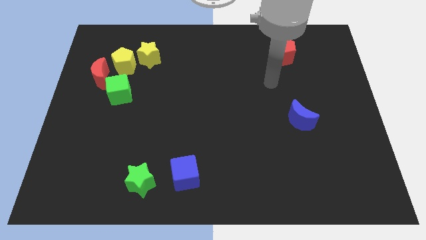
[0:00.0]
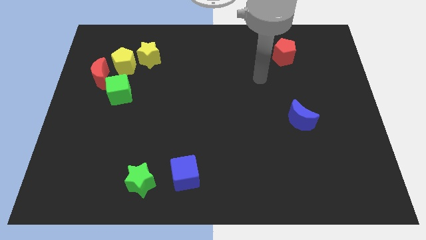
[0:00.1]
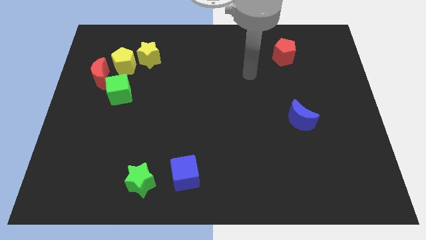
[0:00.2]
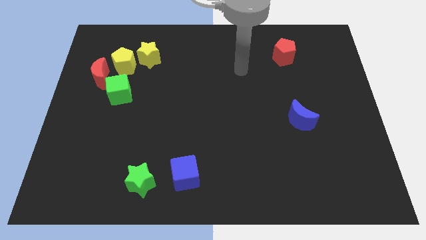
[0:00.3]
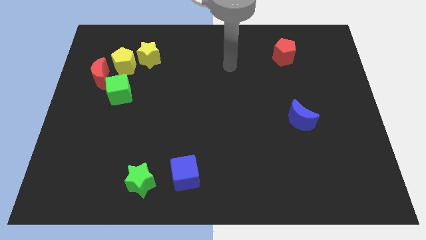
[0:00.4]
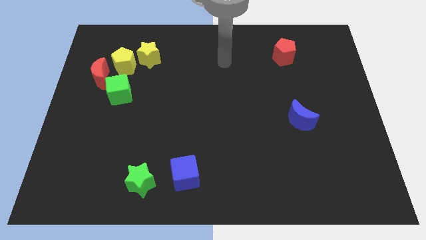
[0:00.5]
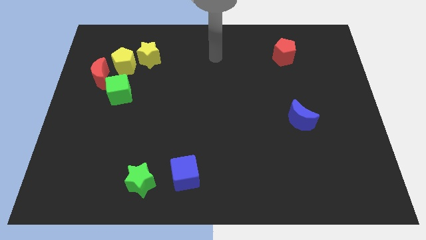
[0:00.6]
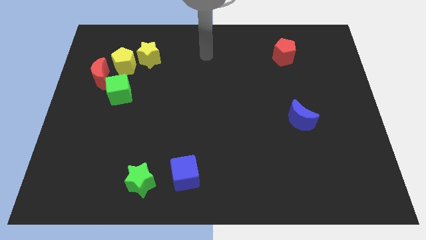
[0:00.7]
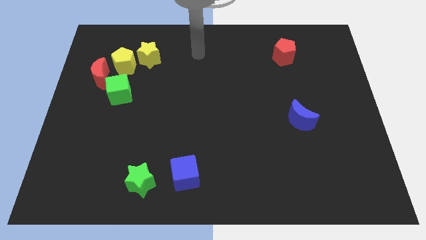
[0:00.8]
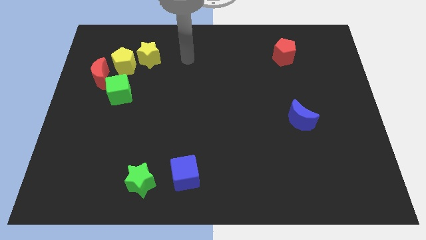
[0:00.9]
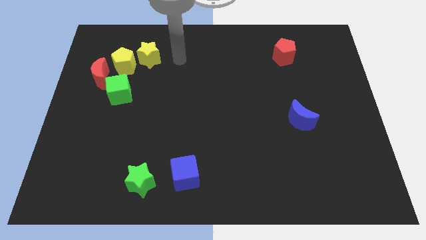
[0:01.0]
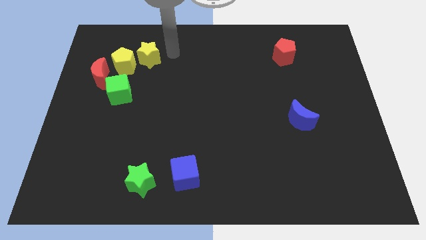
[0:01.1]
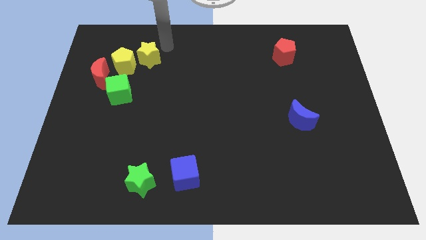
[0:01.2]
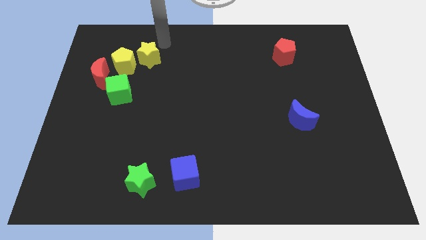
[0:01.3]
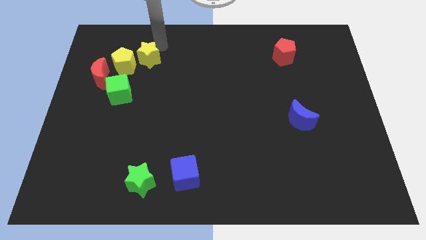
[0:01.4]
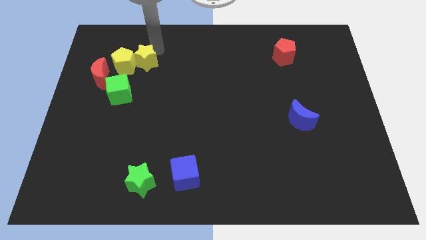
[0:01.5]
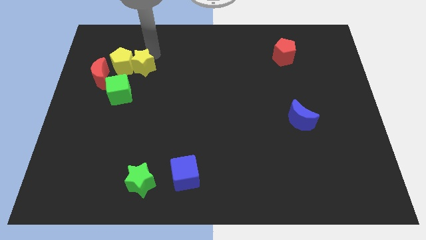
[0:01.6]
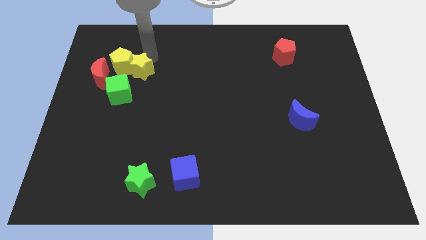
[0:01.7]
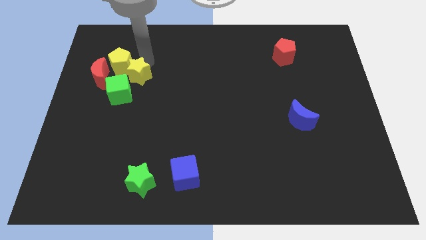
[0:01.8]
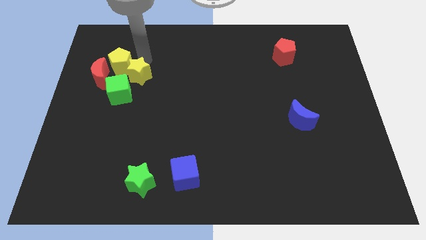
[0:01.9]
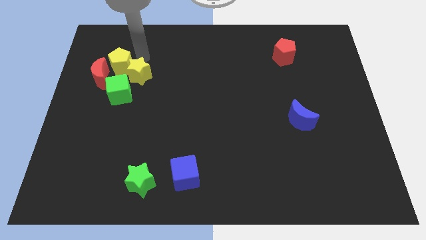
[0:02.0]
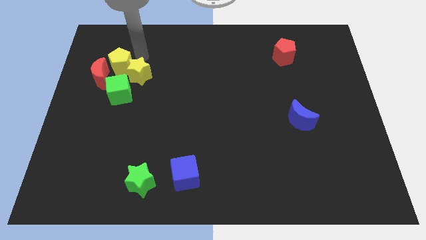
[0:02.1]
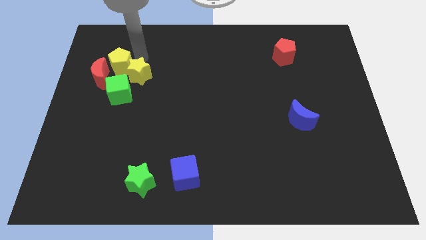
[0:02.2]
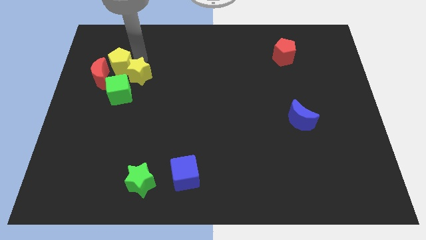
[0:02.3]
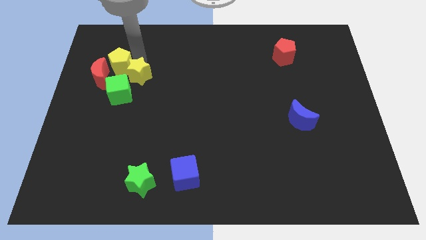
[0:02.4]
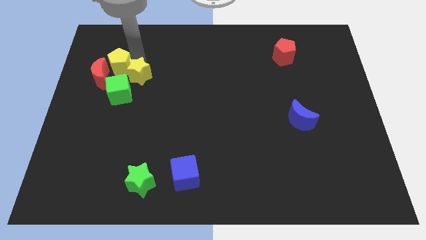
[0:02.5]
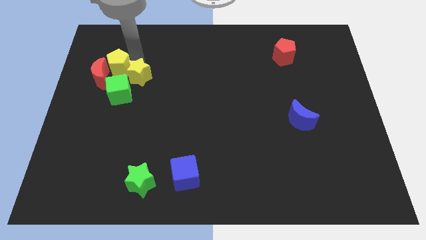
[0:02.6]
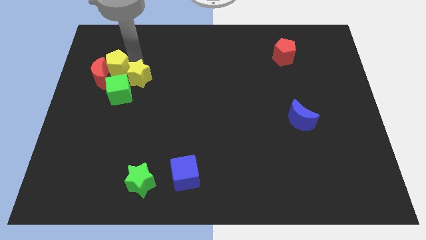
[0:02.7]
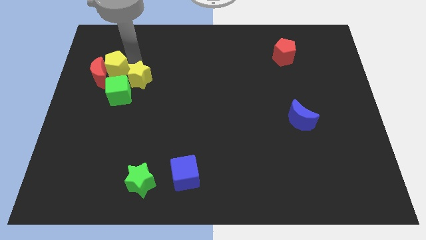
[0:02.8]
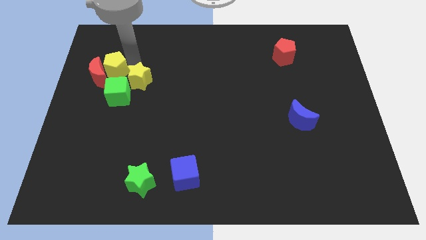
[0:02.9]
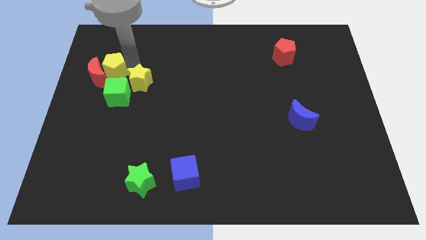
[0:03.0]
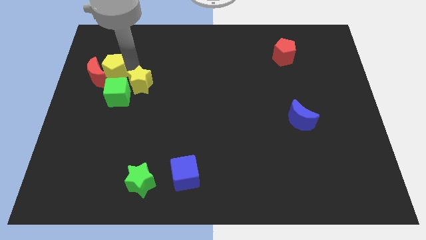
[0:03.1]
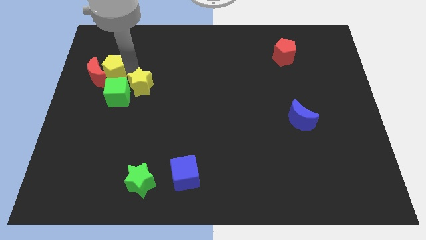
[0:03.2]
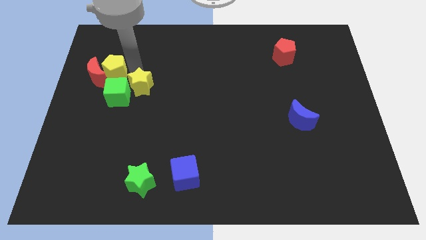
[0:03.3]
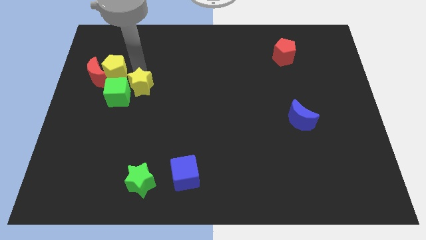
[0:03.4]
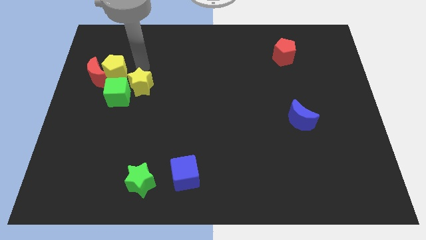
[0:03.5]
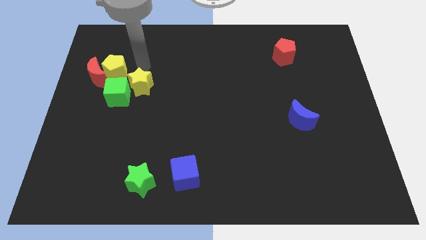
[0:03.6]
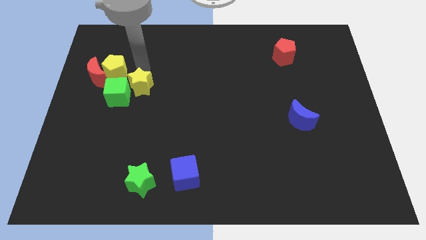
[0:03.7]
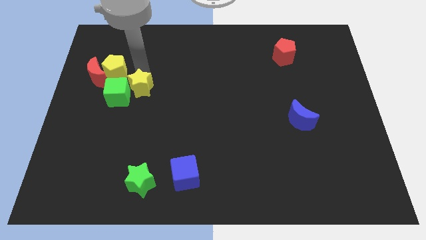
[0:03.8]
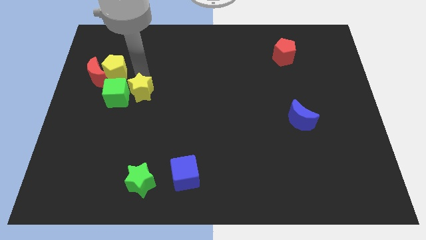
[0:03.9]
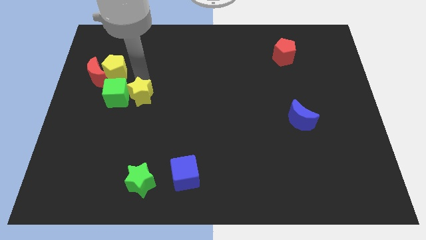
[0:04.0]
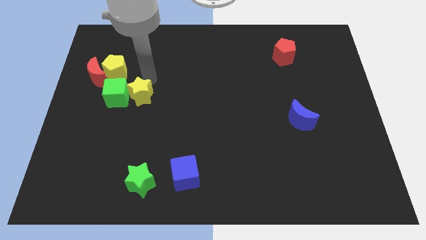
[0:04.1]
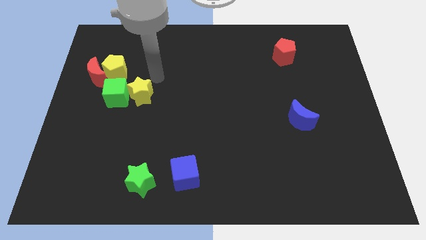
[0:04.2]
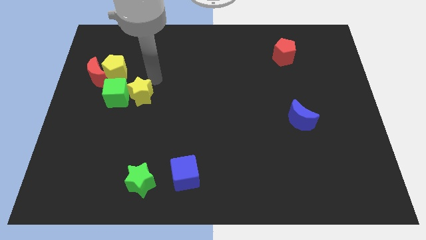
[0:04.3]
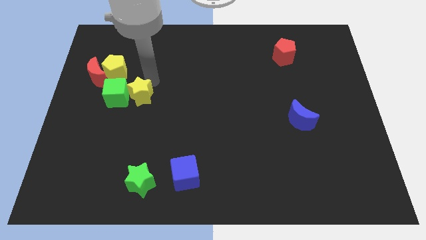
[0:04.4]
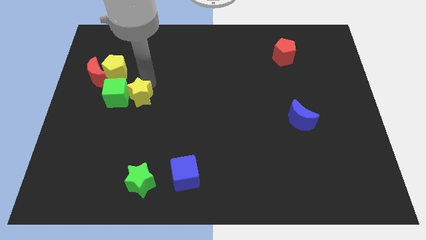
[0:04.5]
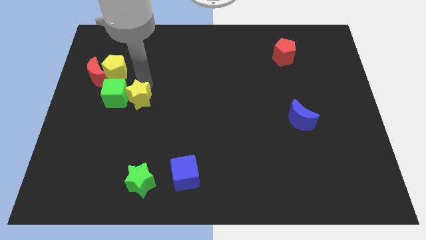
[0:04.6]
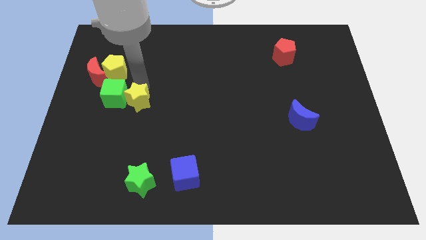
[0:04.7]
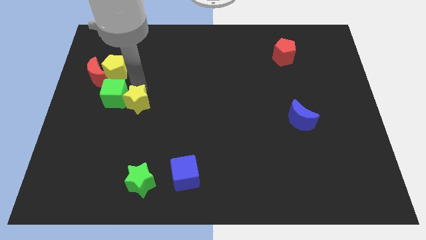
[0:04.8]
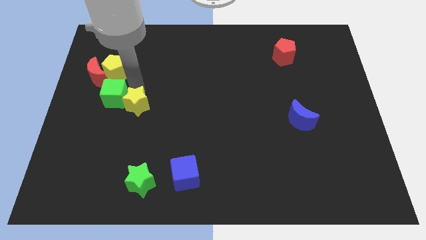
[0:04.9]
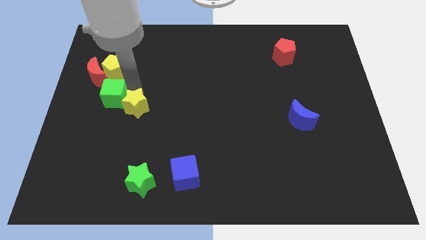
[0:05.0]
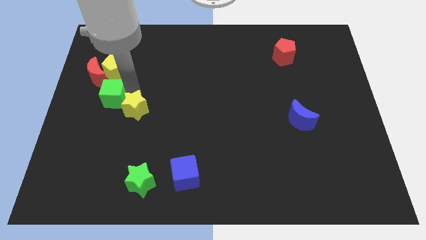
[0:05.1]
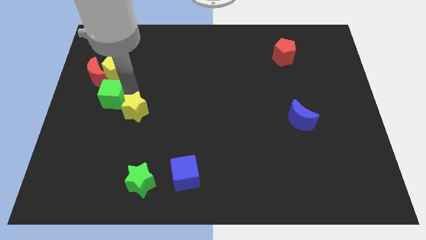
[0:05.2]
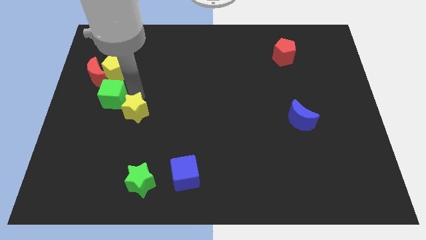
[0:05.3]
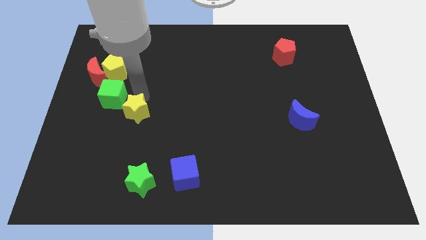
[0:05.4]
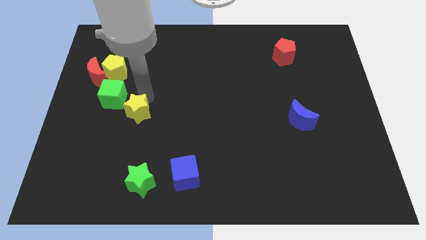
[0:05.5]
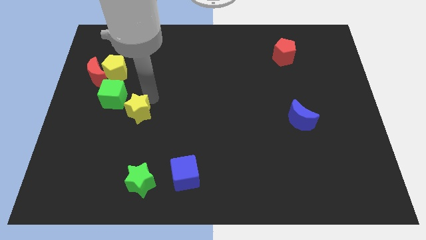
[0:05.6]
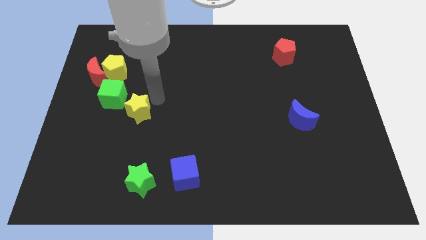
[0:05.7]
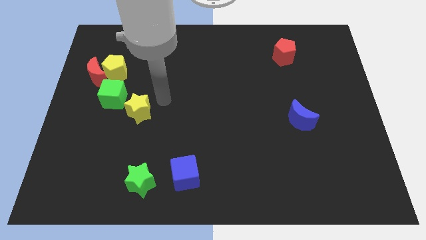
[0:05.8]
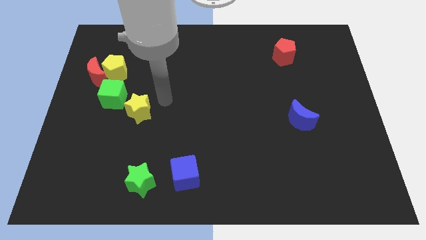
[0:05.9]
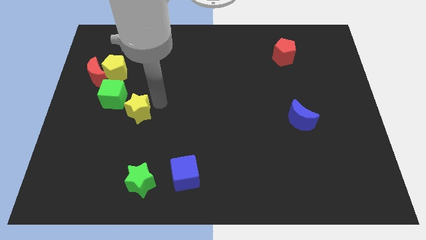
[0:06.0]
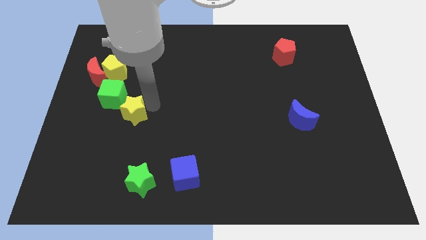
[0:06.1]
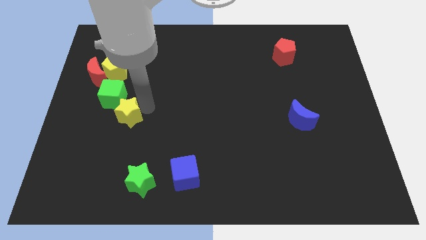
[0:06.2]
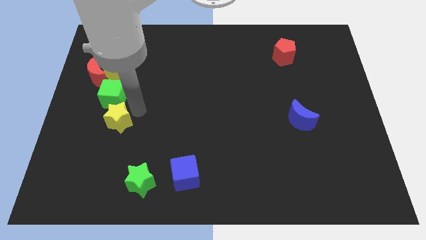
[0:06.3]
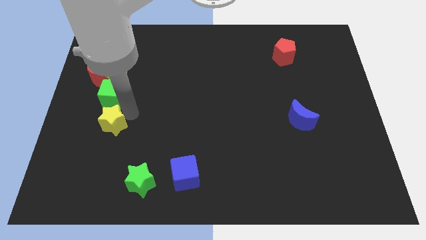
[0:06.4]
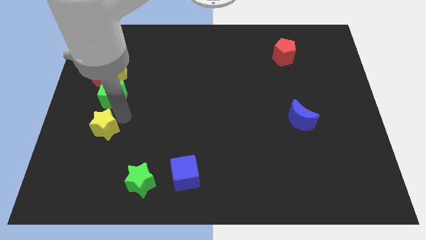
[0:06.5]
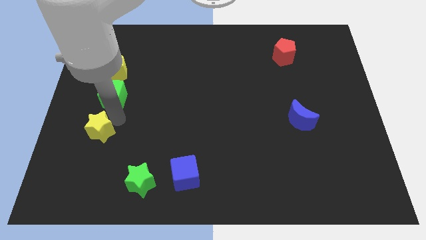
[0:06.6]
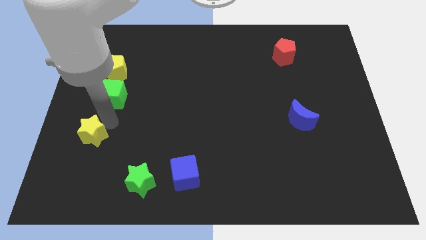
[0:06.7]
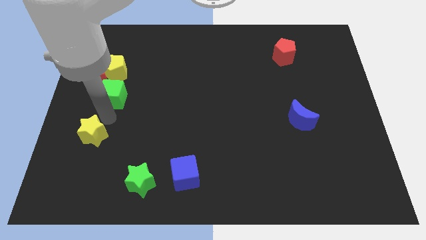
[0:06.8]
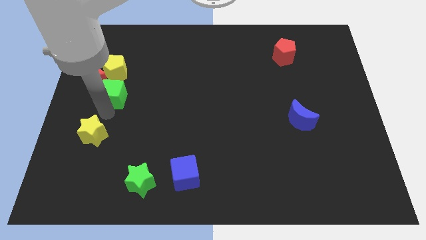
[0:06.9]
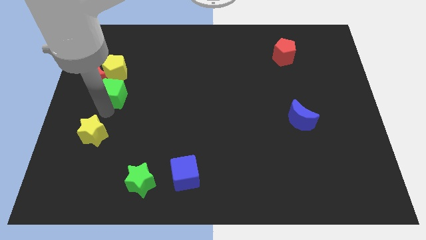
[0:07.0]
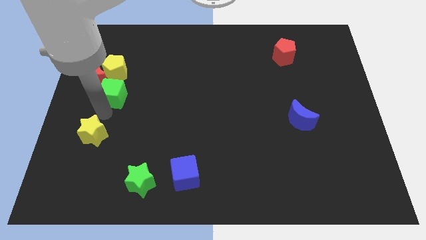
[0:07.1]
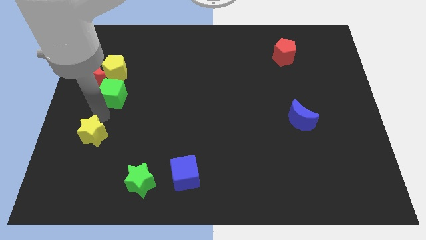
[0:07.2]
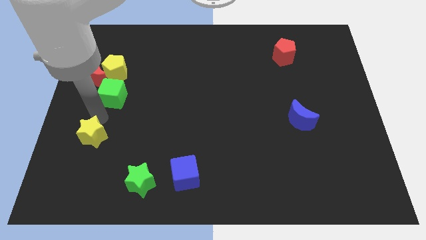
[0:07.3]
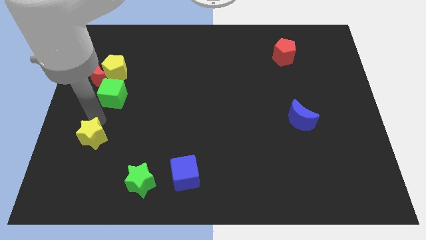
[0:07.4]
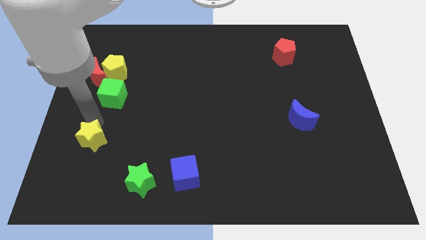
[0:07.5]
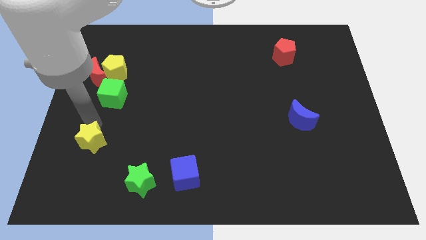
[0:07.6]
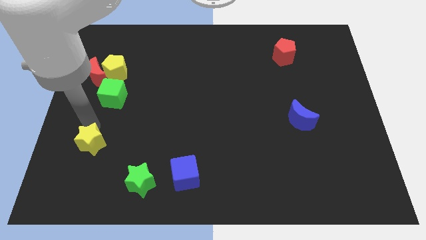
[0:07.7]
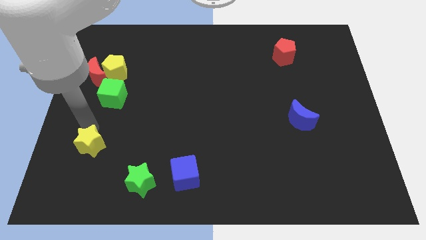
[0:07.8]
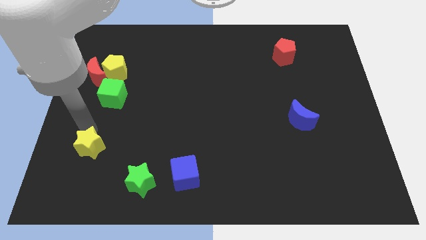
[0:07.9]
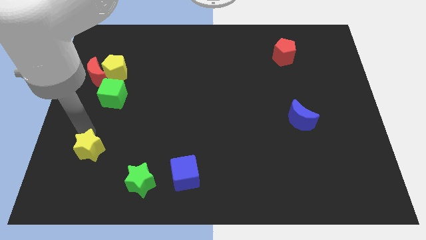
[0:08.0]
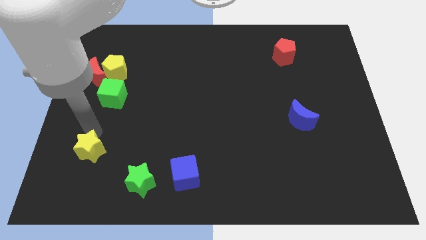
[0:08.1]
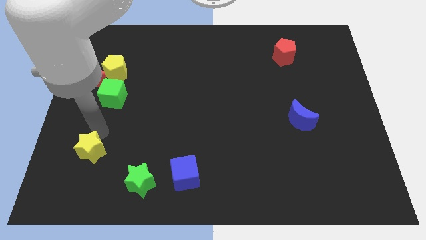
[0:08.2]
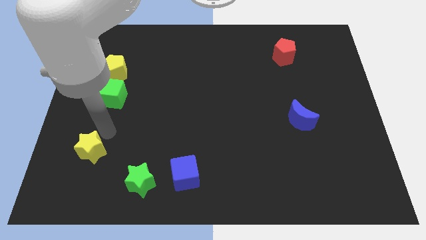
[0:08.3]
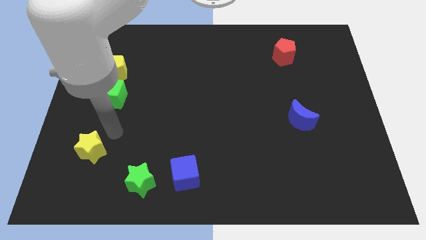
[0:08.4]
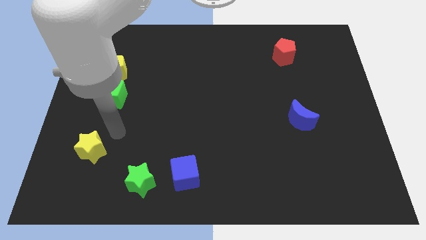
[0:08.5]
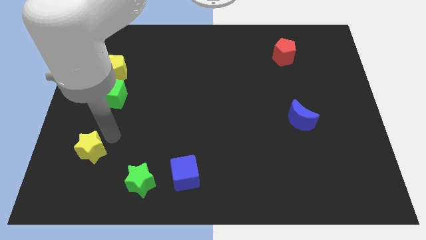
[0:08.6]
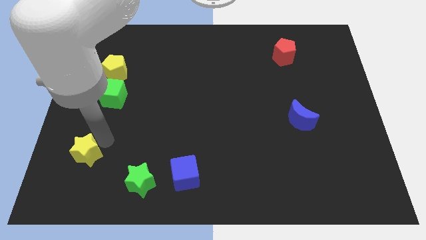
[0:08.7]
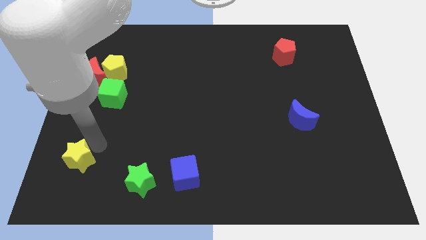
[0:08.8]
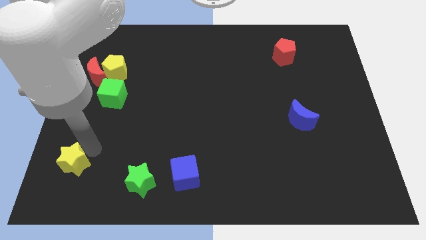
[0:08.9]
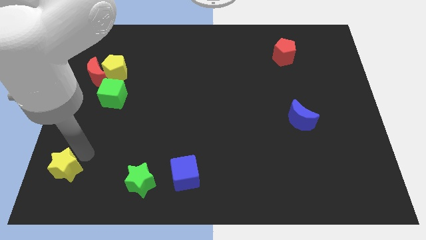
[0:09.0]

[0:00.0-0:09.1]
put the yellow star to the bottom left
